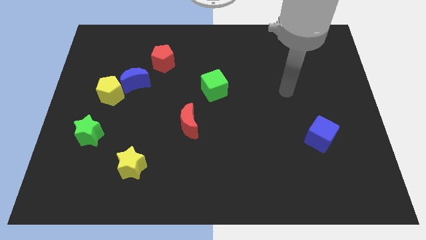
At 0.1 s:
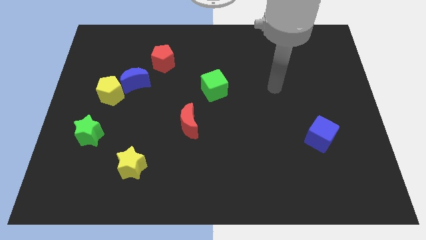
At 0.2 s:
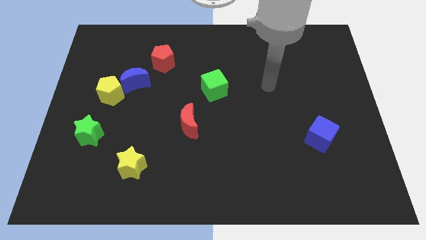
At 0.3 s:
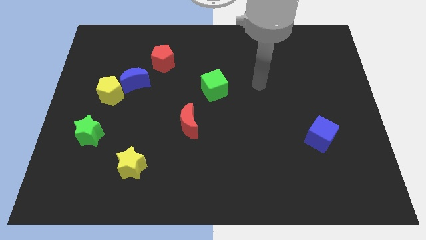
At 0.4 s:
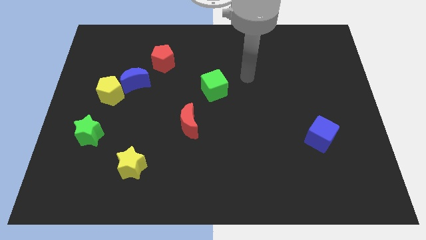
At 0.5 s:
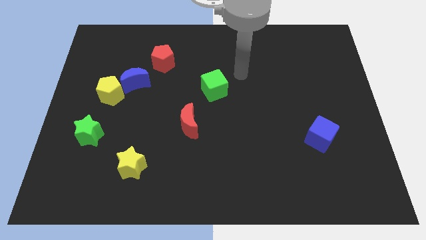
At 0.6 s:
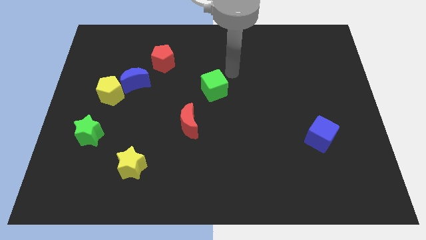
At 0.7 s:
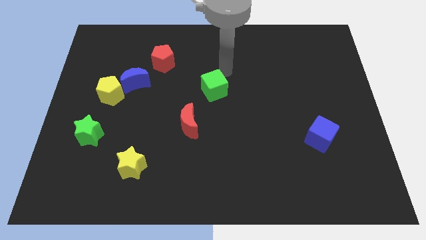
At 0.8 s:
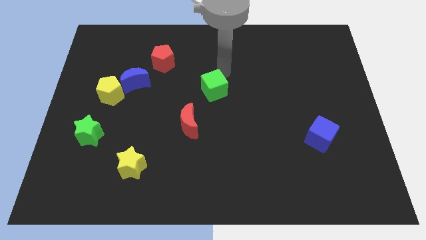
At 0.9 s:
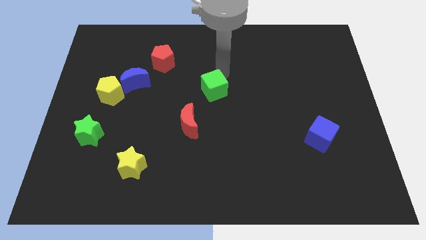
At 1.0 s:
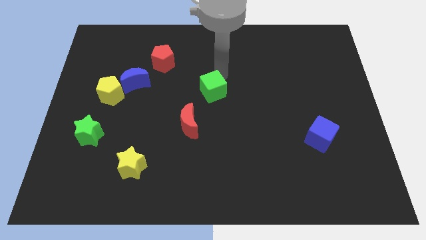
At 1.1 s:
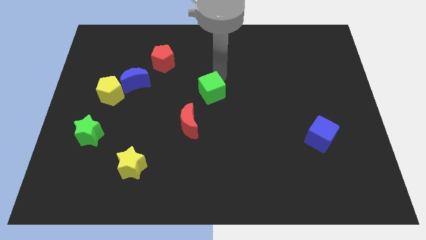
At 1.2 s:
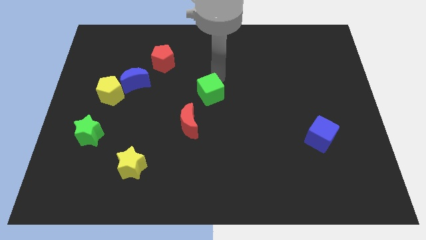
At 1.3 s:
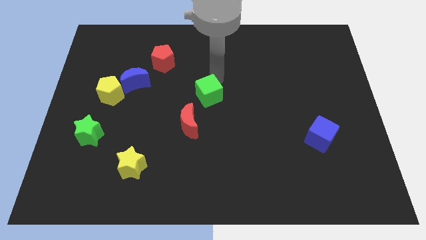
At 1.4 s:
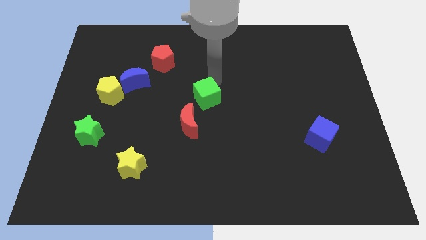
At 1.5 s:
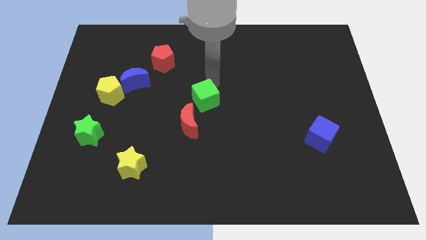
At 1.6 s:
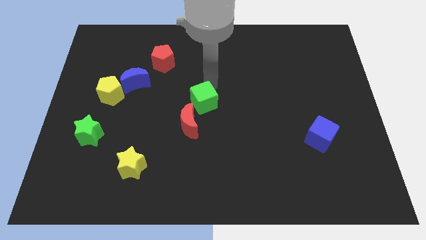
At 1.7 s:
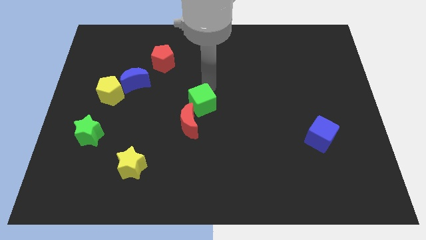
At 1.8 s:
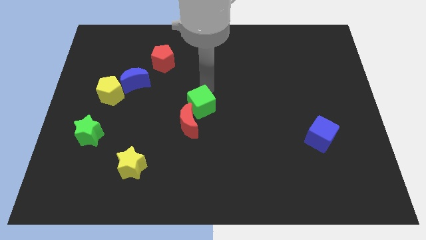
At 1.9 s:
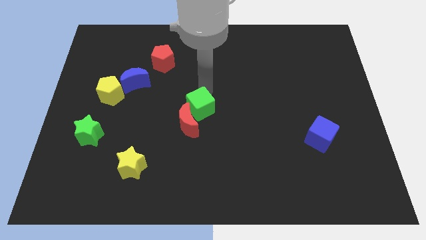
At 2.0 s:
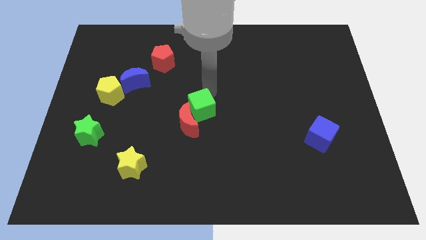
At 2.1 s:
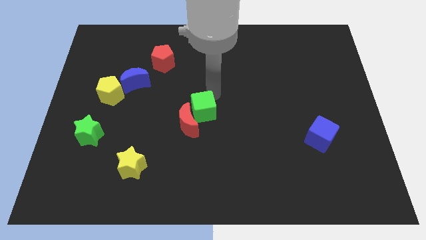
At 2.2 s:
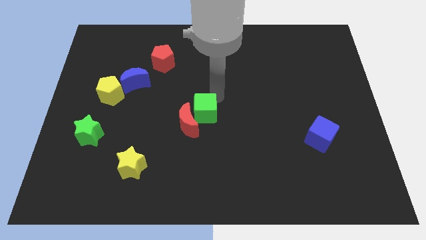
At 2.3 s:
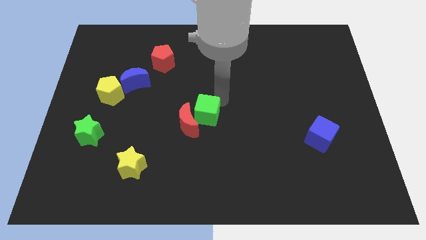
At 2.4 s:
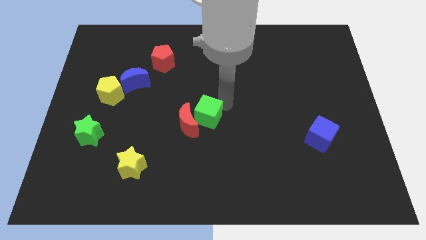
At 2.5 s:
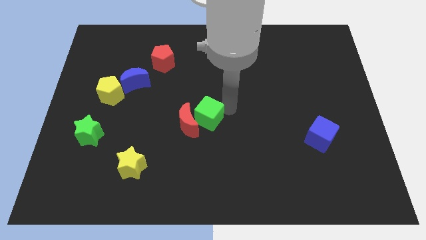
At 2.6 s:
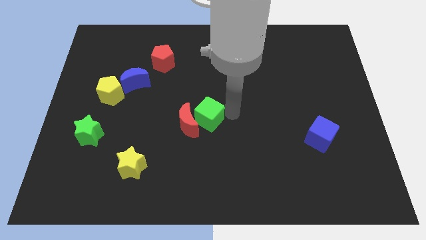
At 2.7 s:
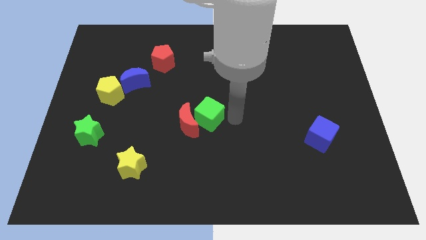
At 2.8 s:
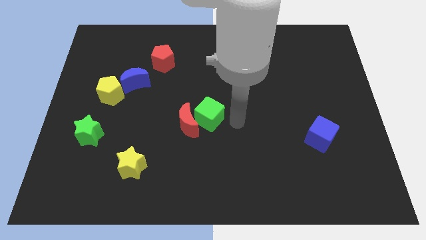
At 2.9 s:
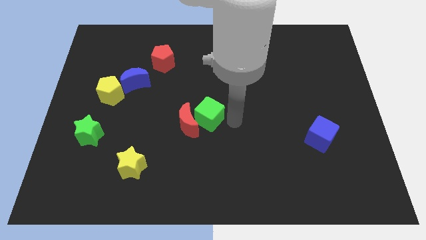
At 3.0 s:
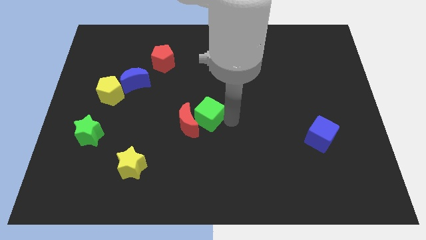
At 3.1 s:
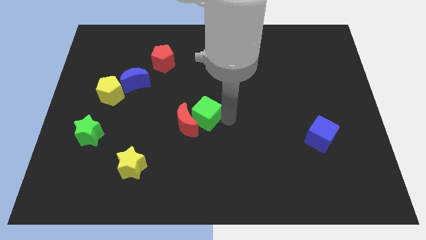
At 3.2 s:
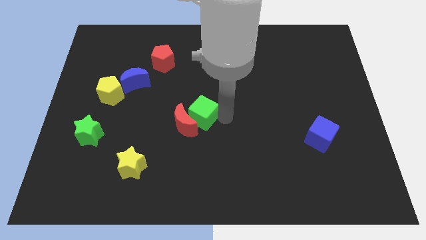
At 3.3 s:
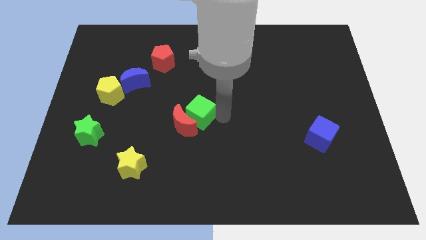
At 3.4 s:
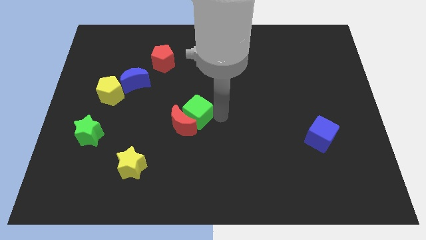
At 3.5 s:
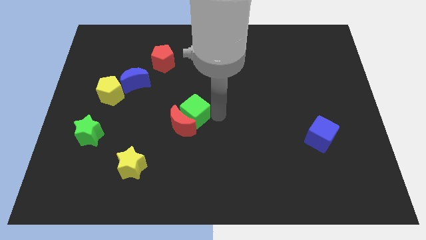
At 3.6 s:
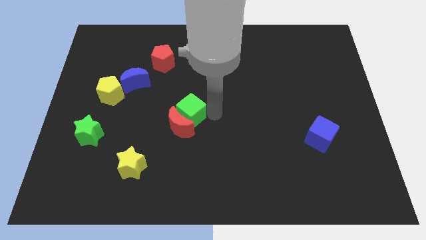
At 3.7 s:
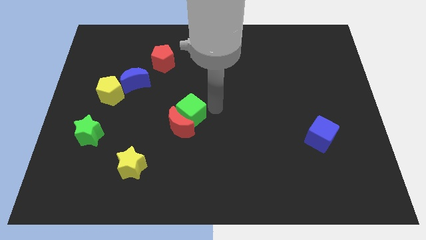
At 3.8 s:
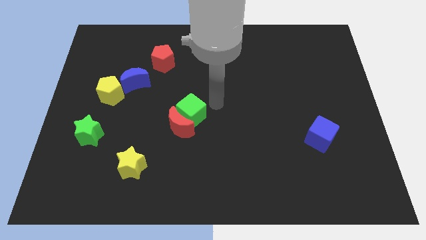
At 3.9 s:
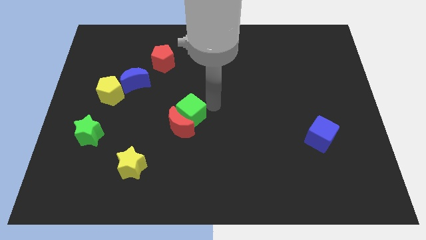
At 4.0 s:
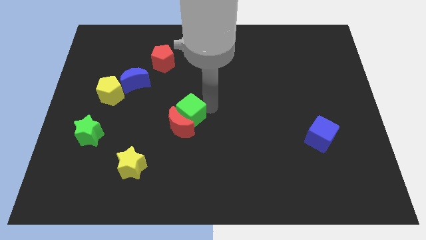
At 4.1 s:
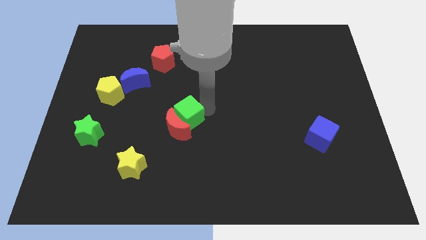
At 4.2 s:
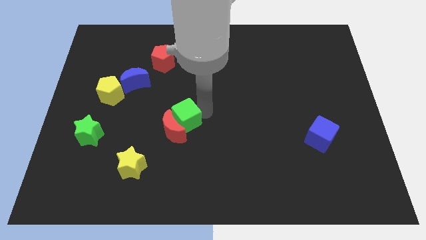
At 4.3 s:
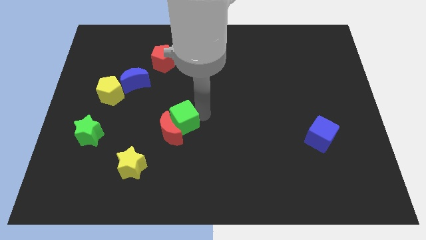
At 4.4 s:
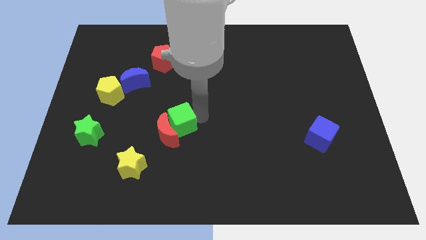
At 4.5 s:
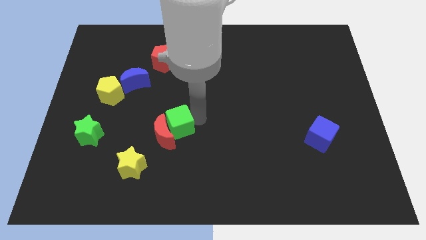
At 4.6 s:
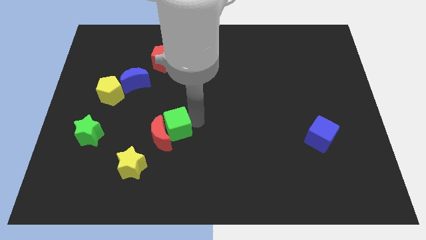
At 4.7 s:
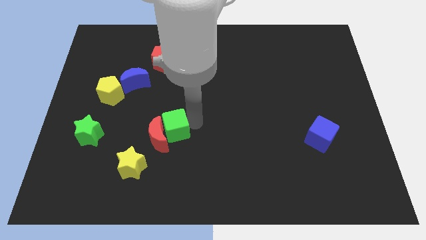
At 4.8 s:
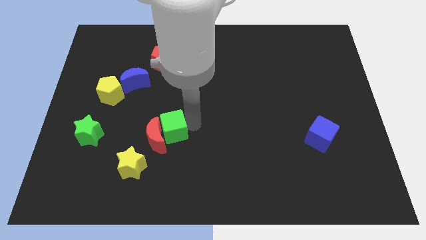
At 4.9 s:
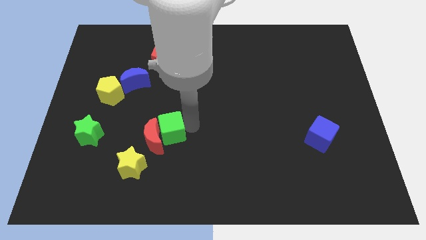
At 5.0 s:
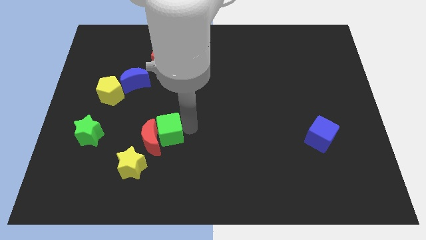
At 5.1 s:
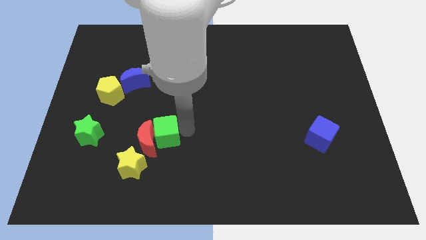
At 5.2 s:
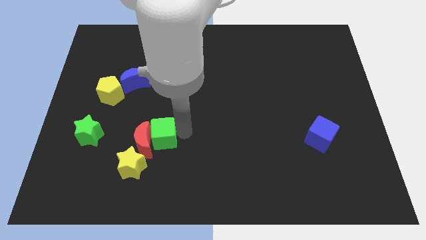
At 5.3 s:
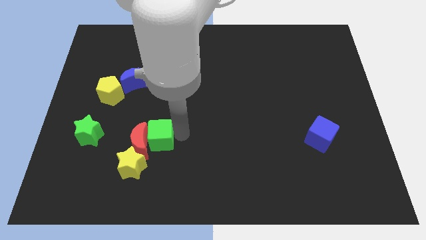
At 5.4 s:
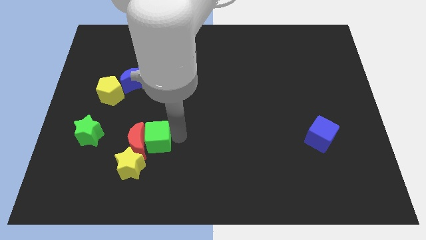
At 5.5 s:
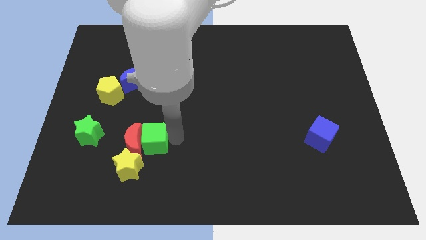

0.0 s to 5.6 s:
slide the green cube diagonally downwards and left

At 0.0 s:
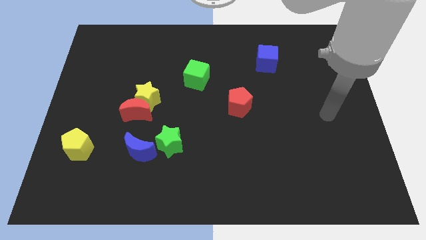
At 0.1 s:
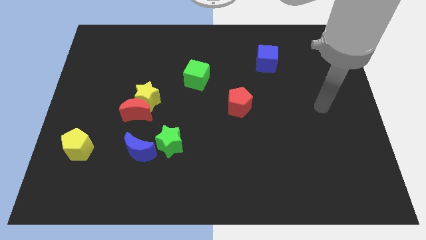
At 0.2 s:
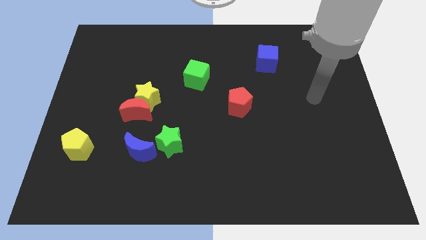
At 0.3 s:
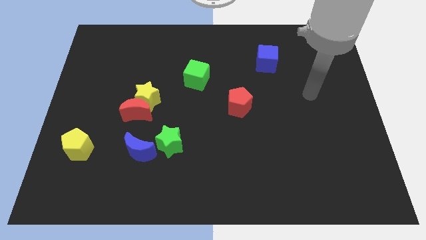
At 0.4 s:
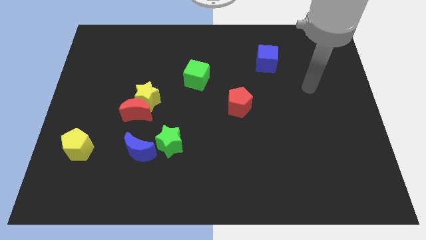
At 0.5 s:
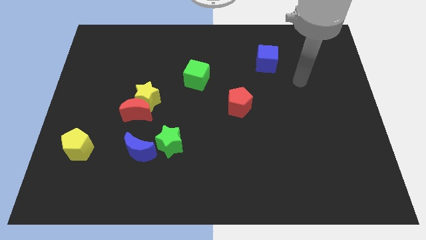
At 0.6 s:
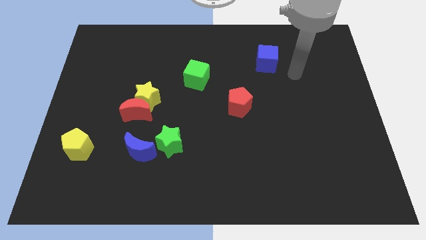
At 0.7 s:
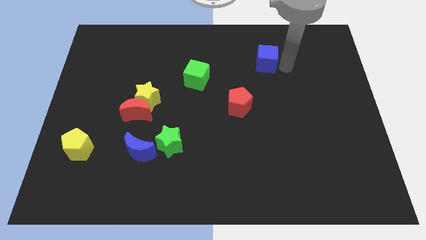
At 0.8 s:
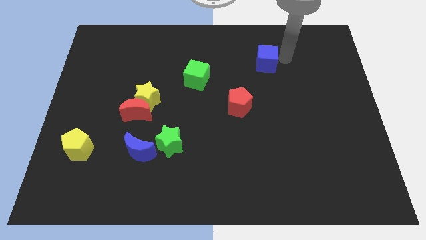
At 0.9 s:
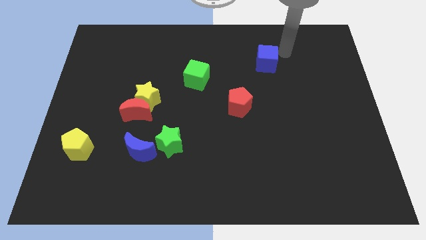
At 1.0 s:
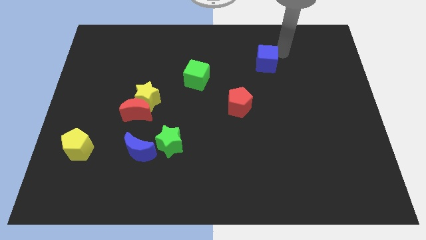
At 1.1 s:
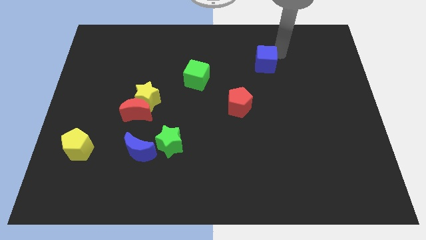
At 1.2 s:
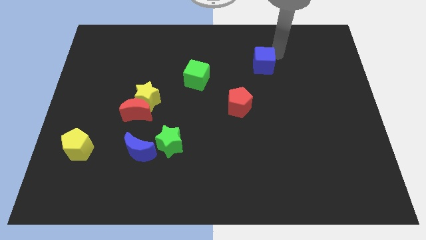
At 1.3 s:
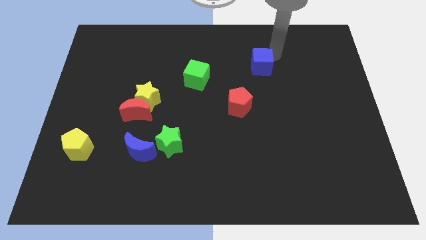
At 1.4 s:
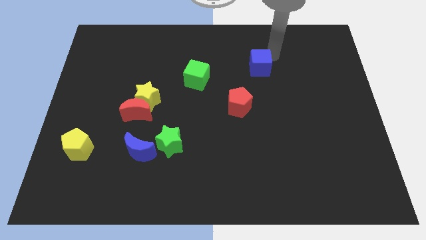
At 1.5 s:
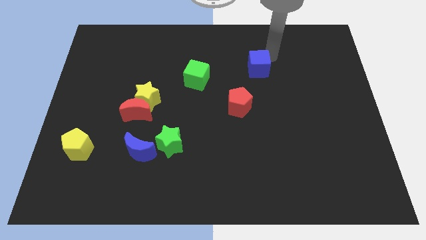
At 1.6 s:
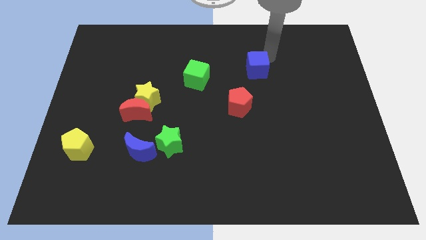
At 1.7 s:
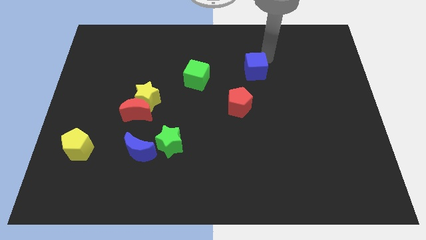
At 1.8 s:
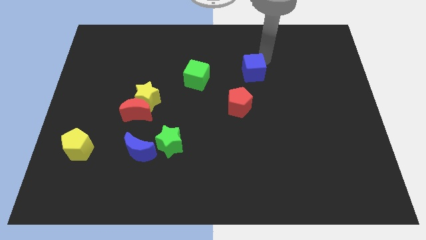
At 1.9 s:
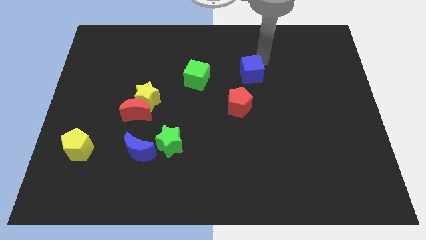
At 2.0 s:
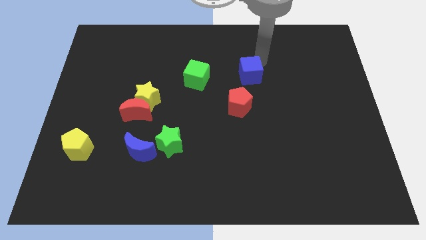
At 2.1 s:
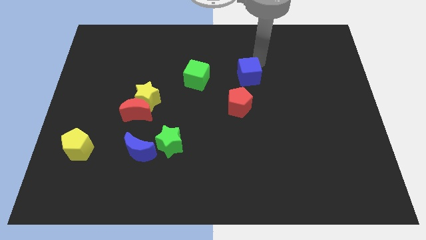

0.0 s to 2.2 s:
push the blue cube down and left diagonally slightly
